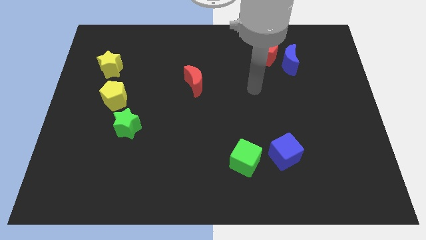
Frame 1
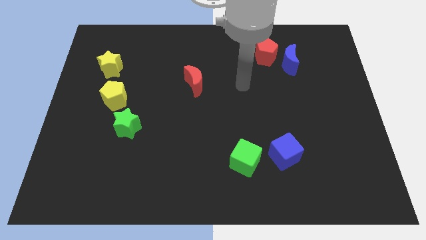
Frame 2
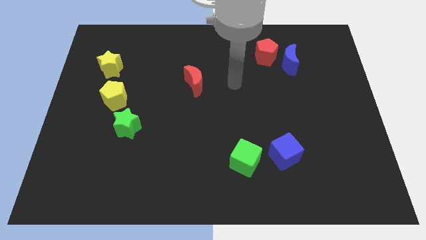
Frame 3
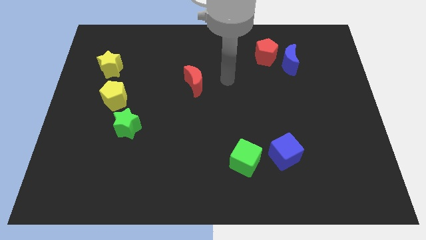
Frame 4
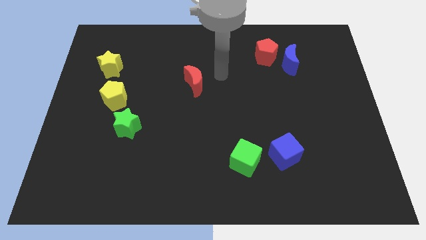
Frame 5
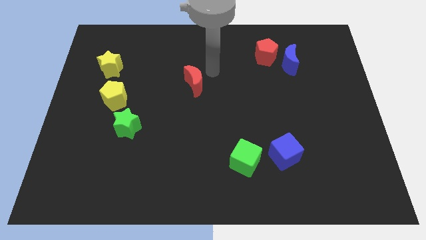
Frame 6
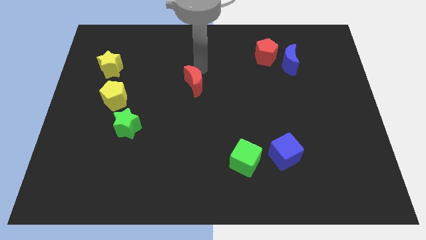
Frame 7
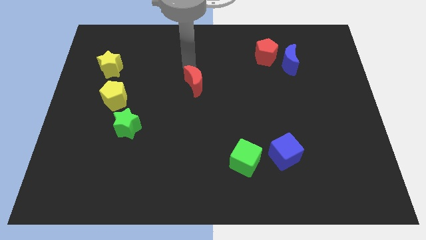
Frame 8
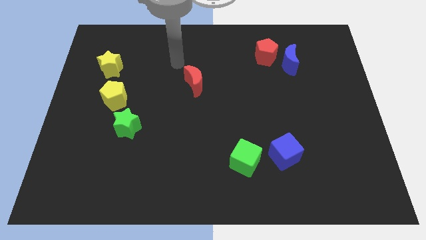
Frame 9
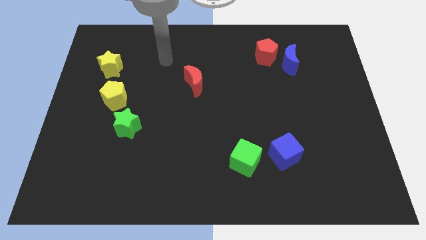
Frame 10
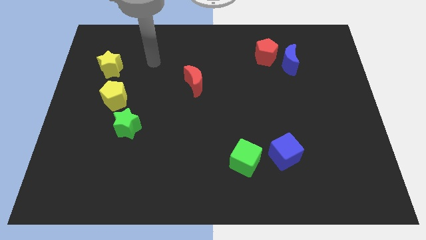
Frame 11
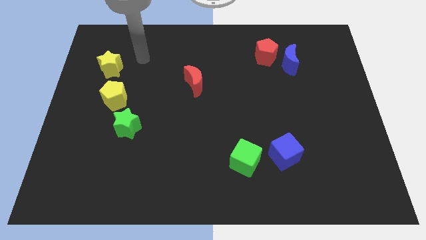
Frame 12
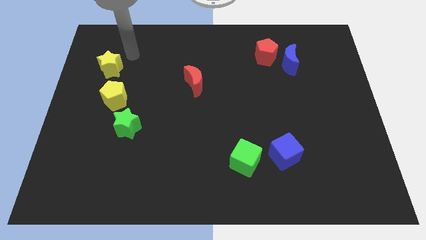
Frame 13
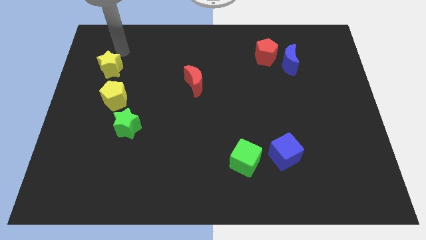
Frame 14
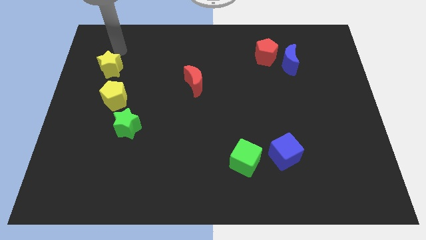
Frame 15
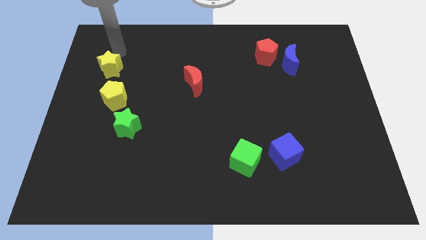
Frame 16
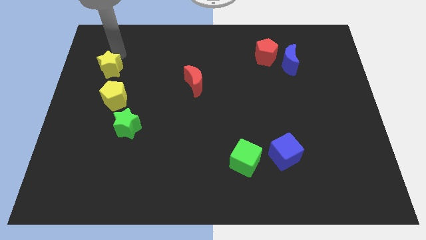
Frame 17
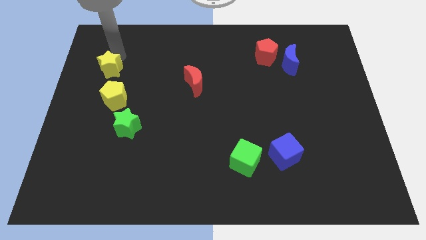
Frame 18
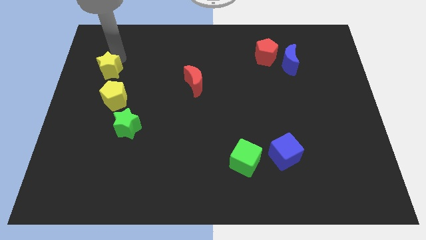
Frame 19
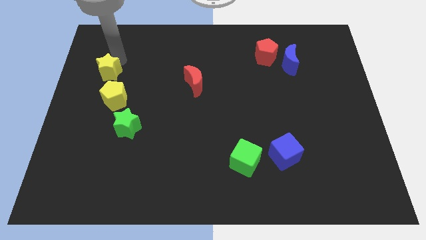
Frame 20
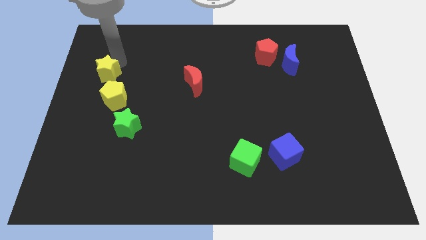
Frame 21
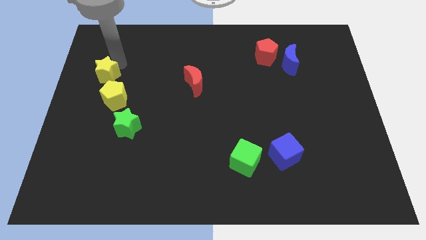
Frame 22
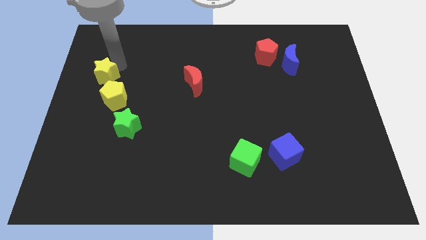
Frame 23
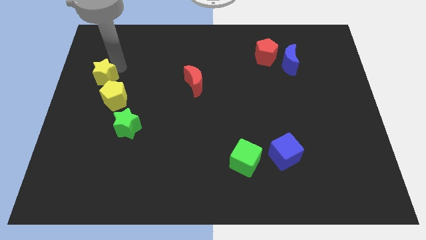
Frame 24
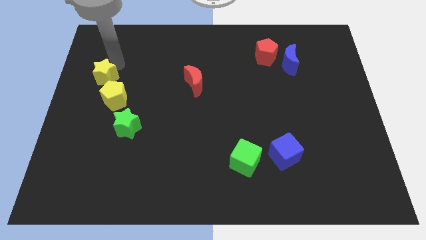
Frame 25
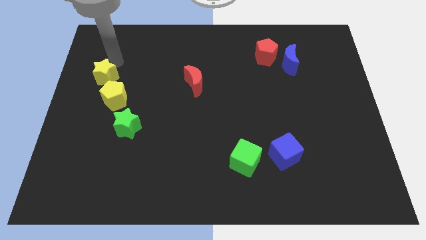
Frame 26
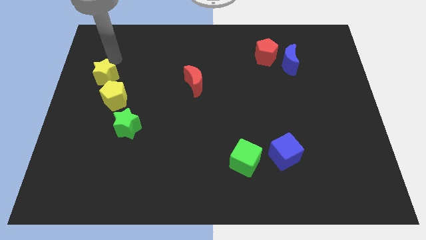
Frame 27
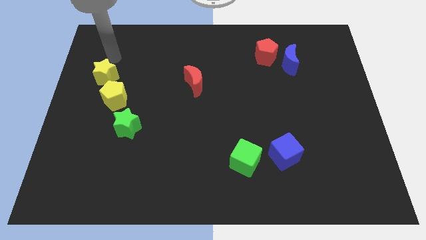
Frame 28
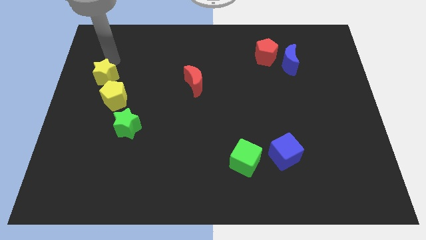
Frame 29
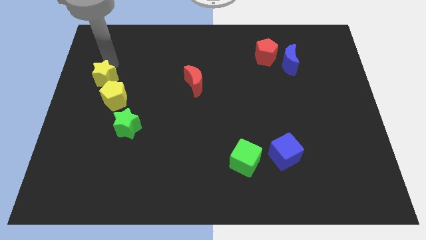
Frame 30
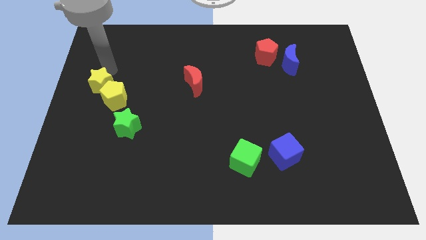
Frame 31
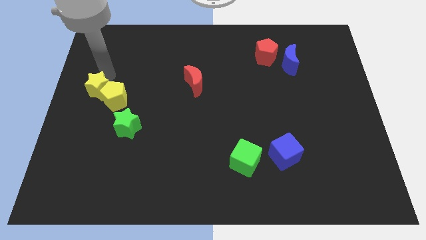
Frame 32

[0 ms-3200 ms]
push the yellow star downwards a little

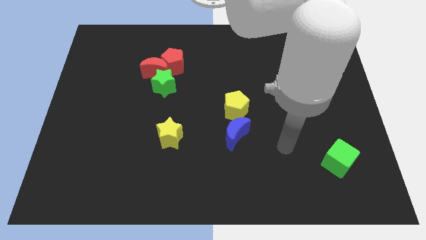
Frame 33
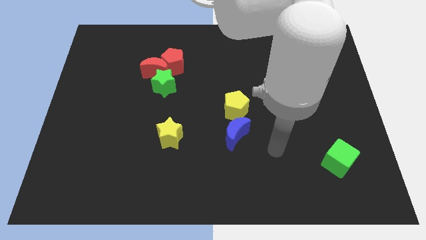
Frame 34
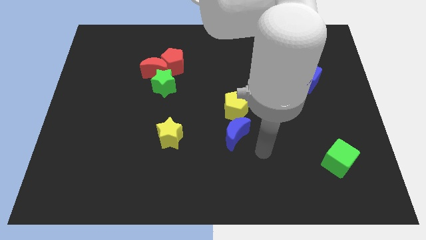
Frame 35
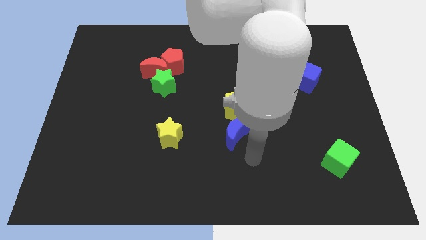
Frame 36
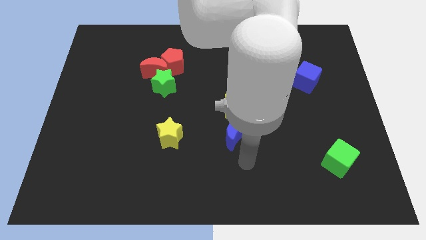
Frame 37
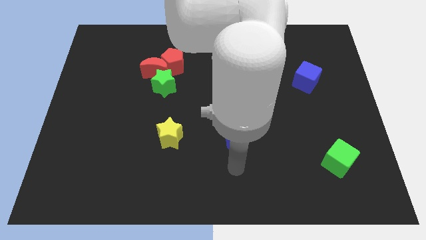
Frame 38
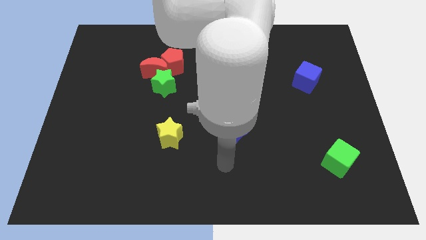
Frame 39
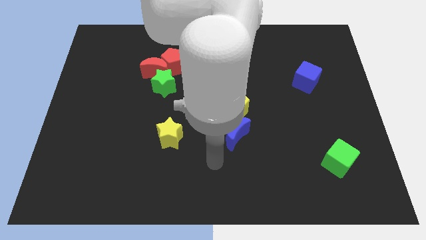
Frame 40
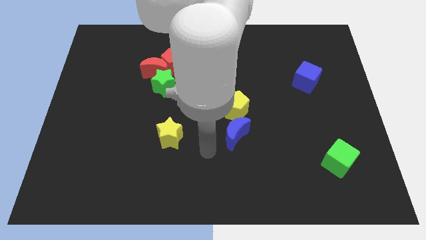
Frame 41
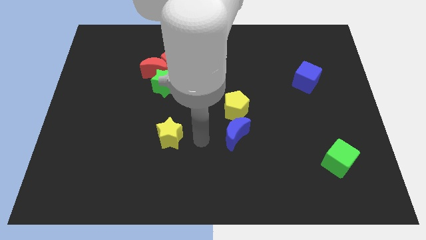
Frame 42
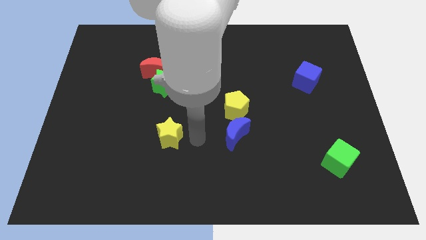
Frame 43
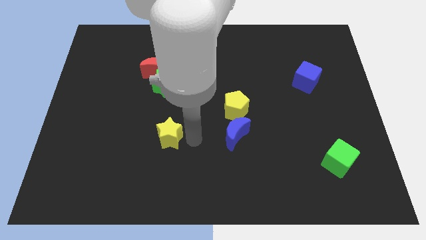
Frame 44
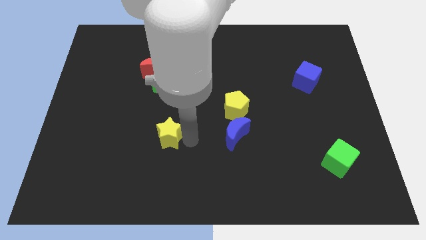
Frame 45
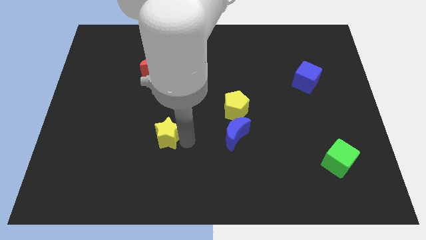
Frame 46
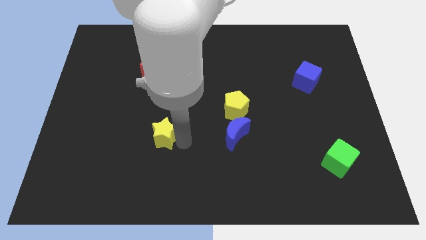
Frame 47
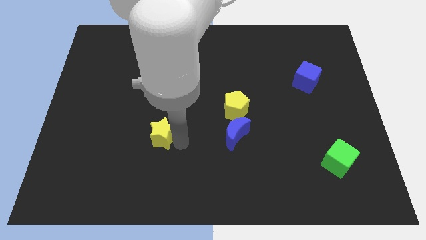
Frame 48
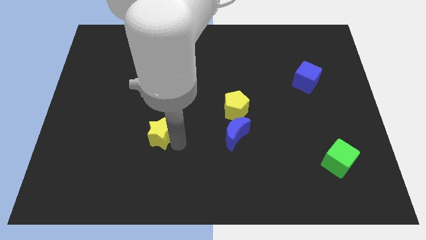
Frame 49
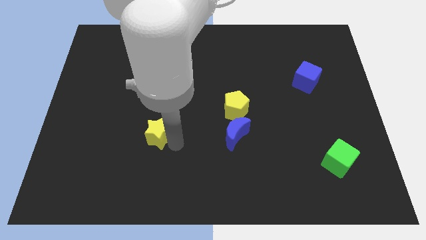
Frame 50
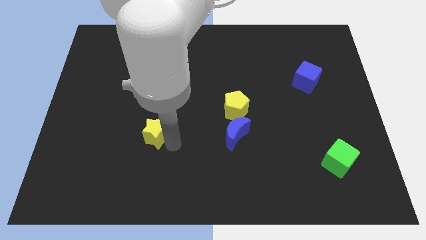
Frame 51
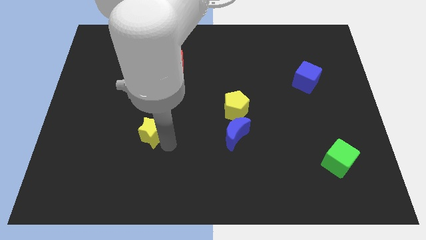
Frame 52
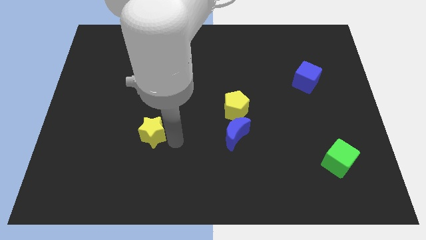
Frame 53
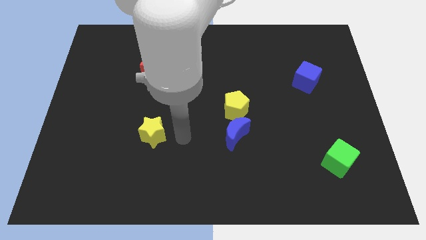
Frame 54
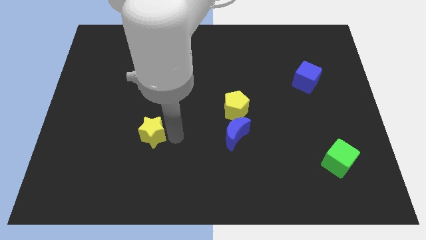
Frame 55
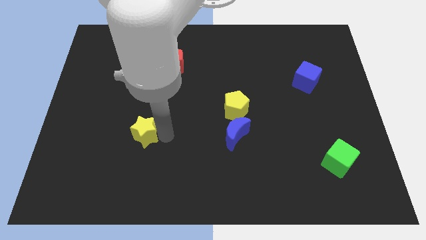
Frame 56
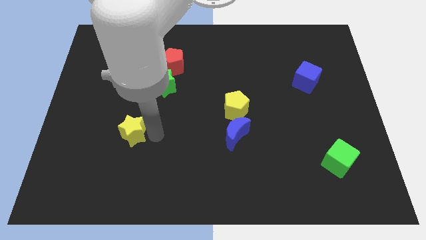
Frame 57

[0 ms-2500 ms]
move the yellow star left a little bit

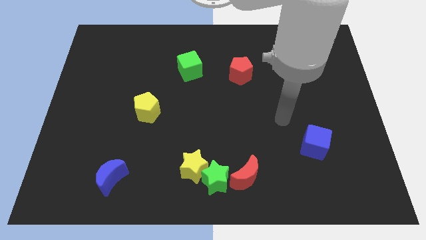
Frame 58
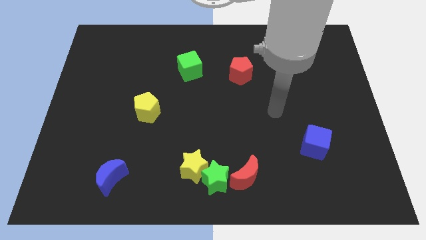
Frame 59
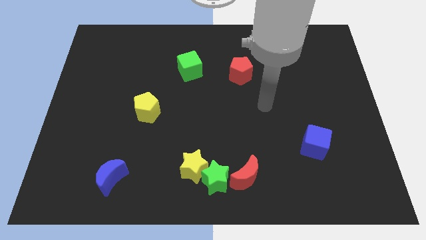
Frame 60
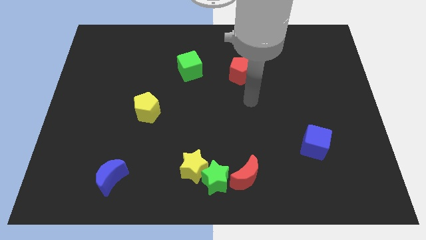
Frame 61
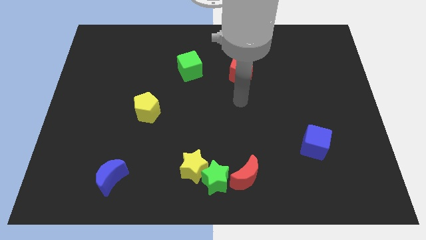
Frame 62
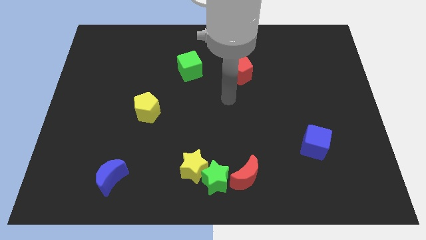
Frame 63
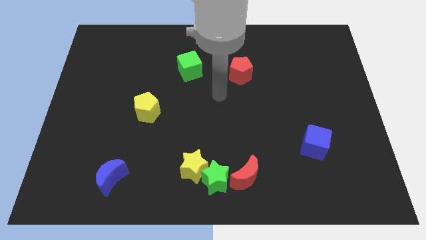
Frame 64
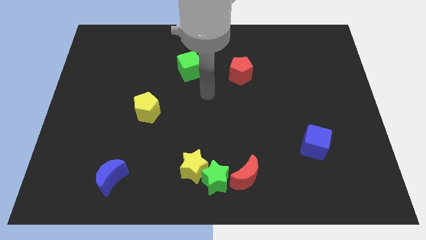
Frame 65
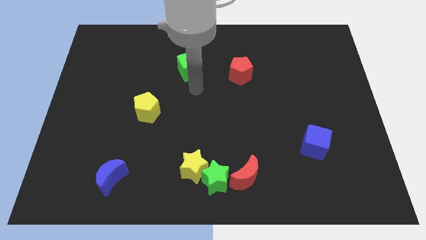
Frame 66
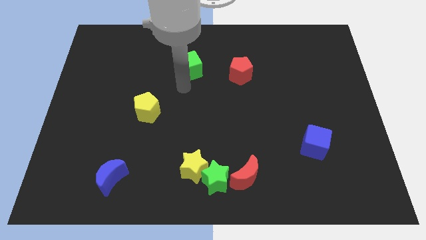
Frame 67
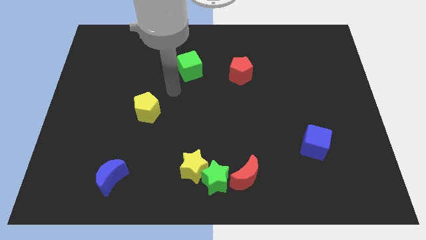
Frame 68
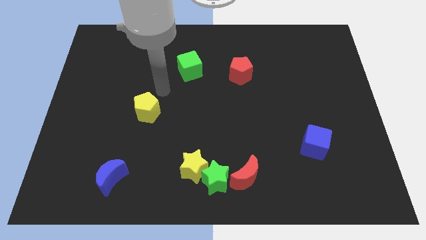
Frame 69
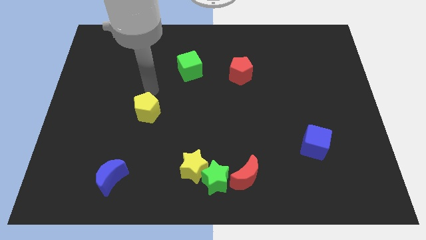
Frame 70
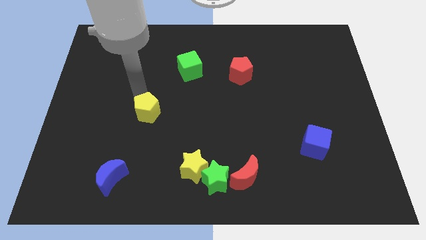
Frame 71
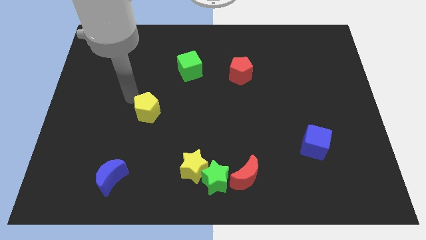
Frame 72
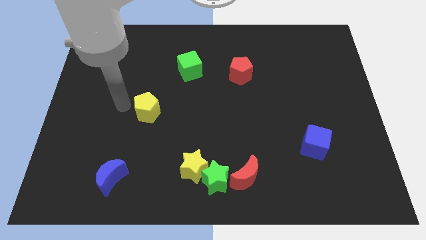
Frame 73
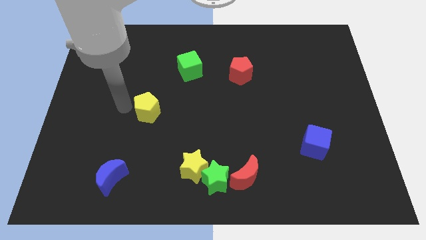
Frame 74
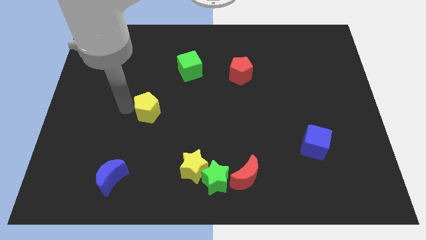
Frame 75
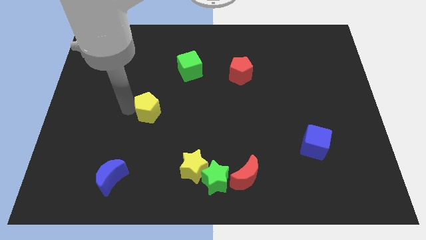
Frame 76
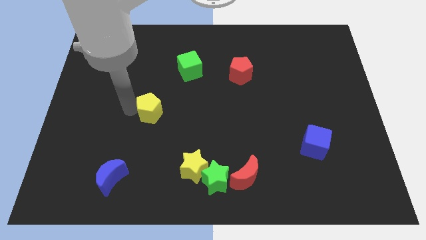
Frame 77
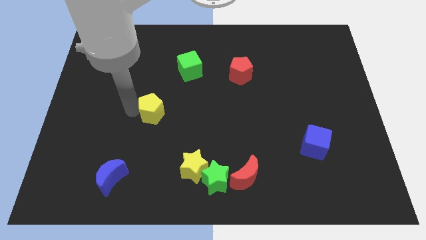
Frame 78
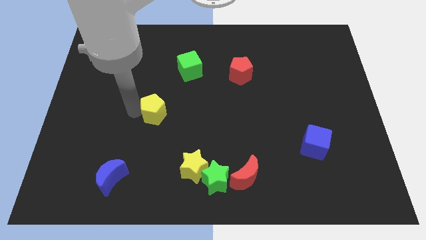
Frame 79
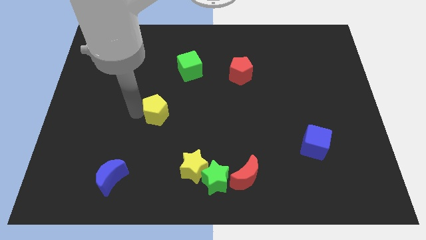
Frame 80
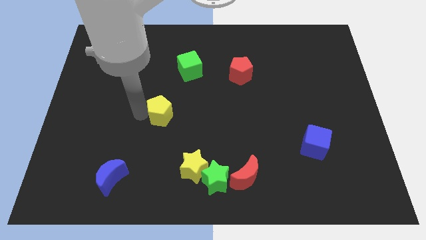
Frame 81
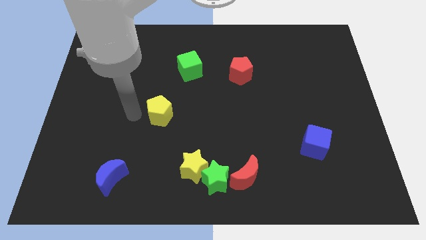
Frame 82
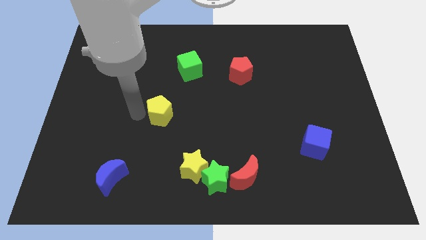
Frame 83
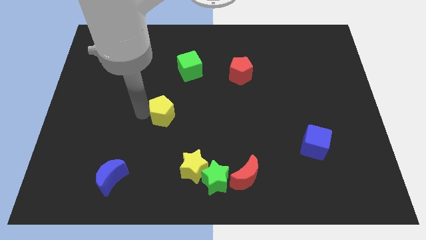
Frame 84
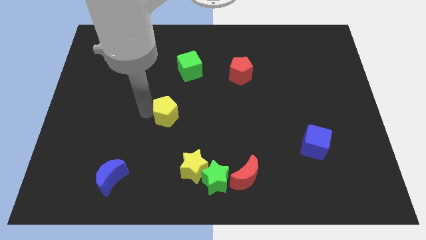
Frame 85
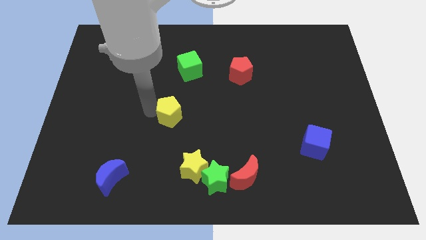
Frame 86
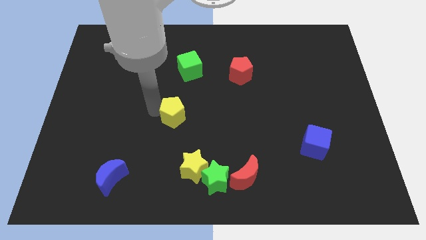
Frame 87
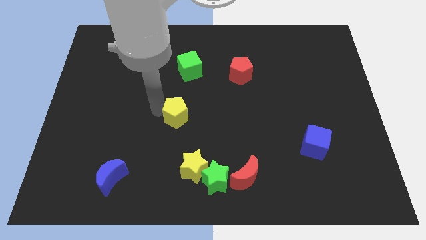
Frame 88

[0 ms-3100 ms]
slightly push the yellow pentagon to the right
